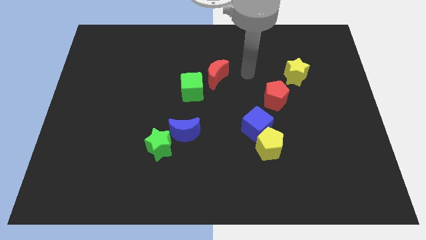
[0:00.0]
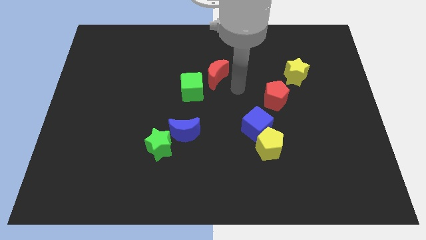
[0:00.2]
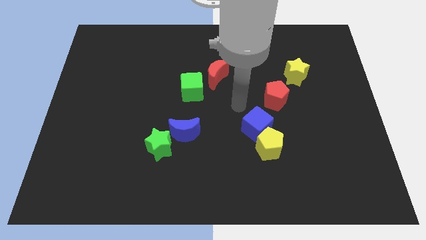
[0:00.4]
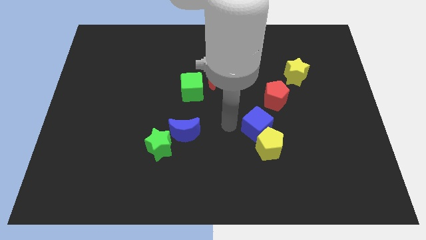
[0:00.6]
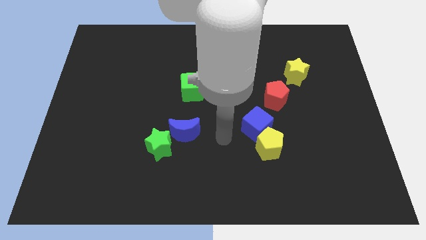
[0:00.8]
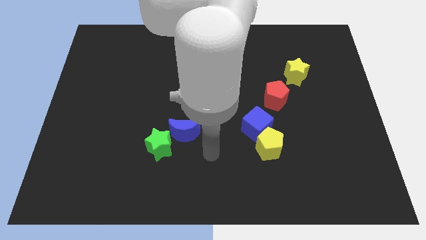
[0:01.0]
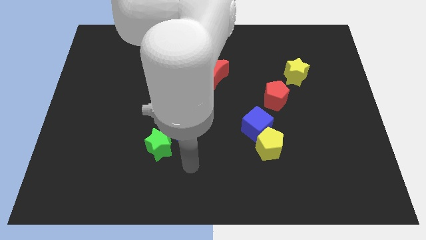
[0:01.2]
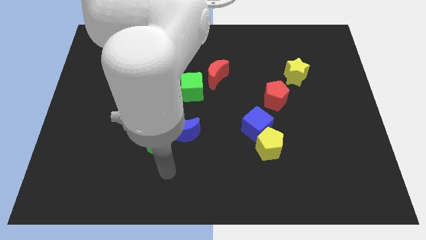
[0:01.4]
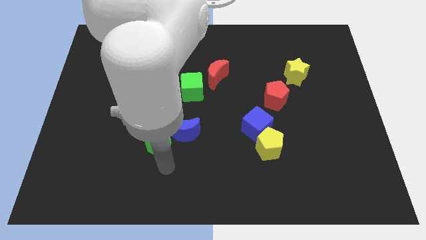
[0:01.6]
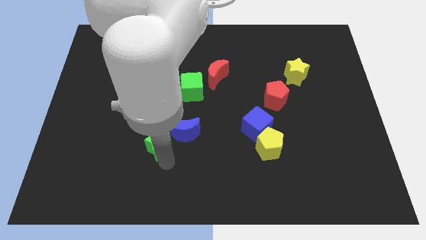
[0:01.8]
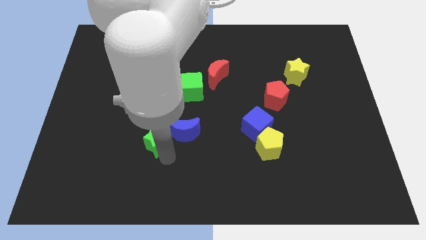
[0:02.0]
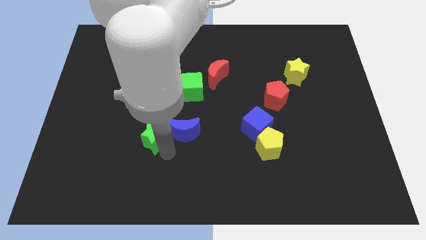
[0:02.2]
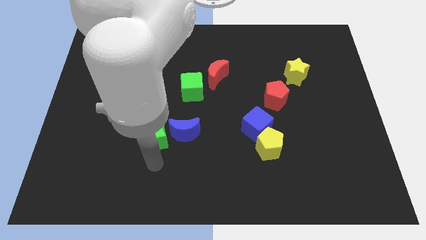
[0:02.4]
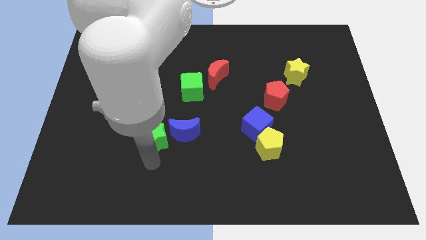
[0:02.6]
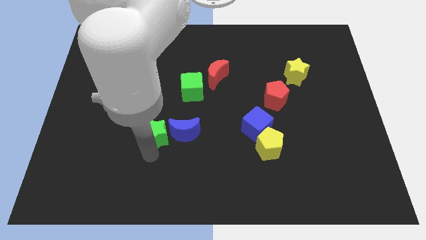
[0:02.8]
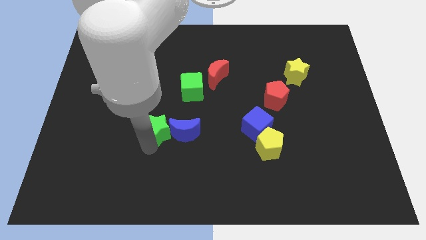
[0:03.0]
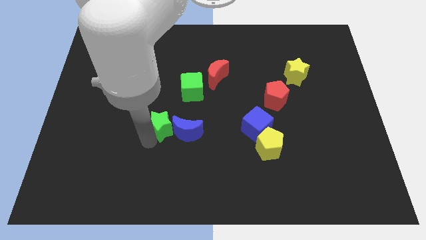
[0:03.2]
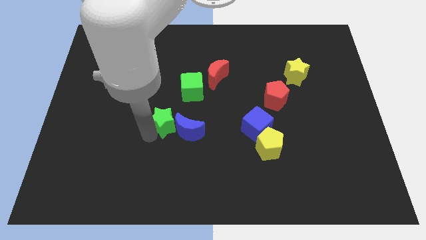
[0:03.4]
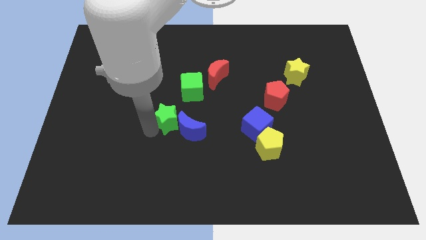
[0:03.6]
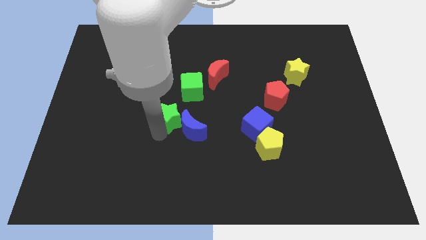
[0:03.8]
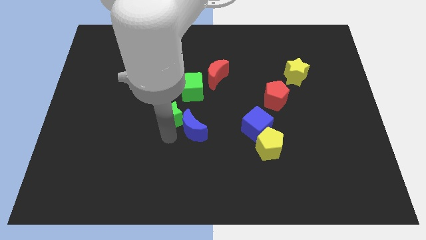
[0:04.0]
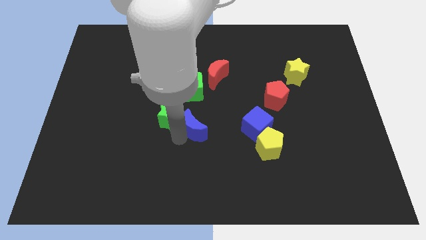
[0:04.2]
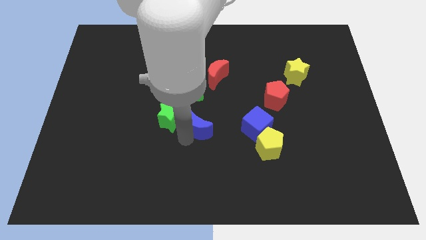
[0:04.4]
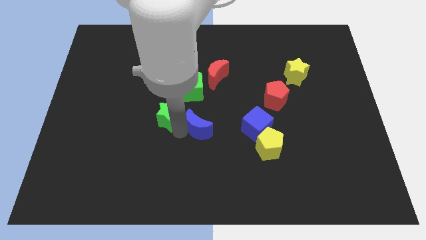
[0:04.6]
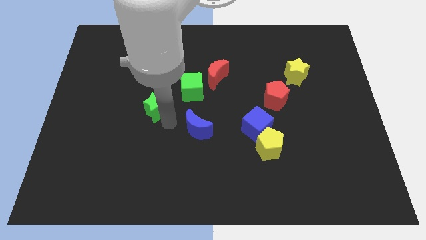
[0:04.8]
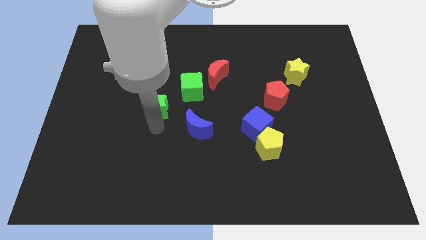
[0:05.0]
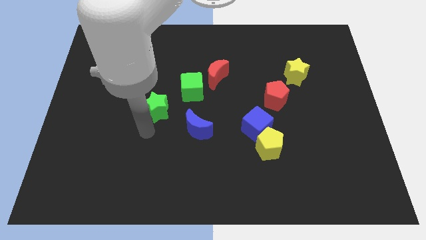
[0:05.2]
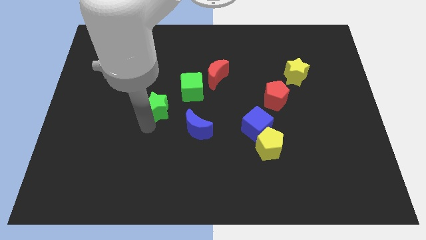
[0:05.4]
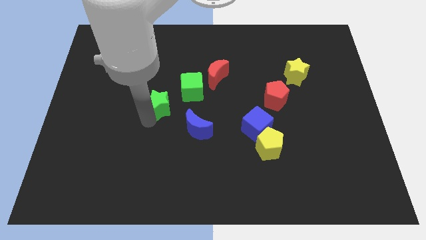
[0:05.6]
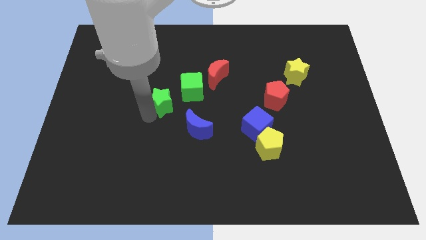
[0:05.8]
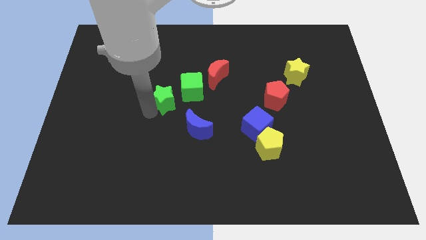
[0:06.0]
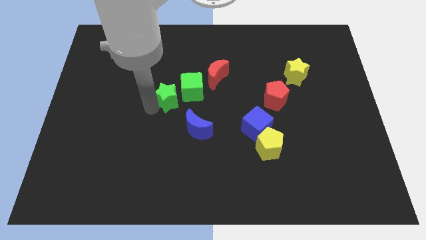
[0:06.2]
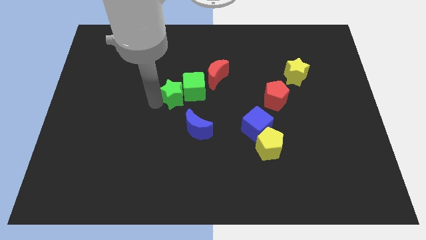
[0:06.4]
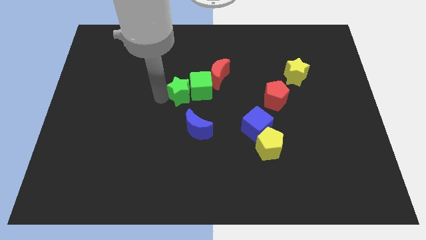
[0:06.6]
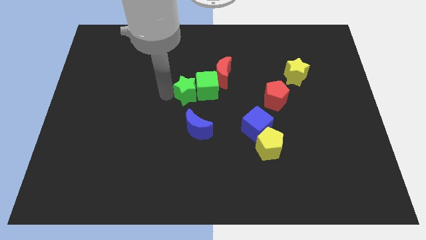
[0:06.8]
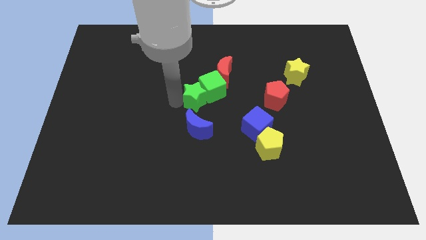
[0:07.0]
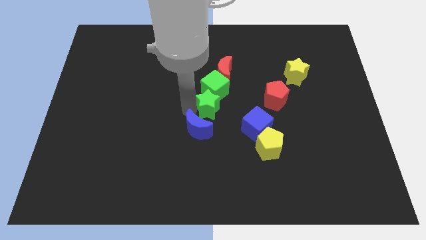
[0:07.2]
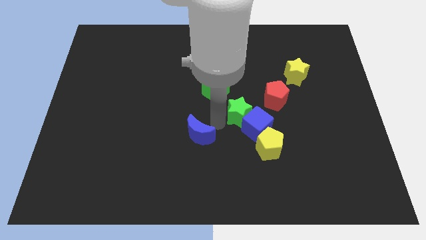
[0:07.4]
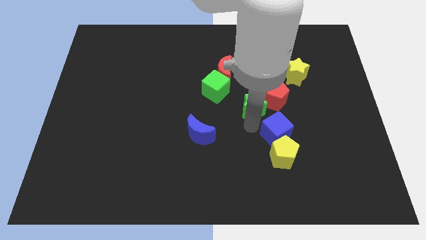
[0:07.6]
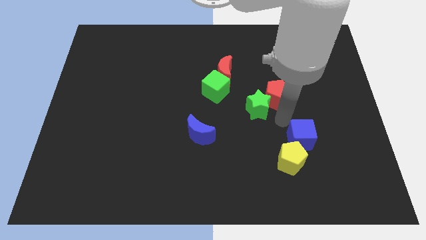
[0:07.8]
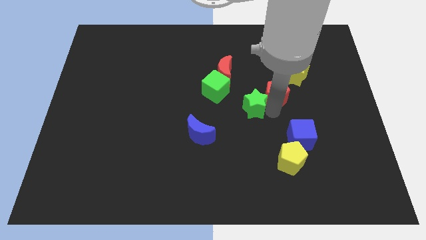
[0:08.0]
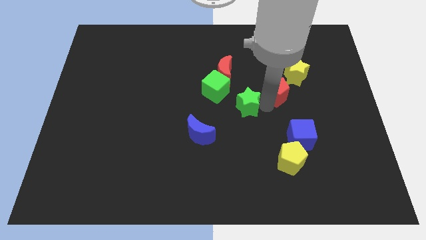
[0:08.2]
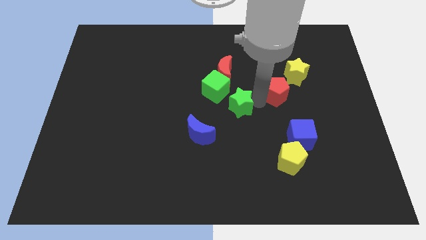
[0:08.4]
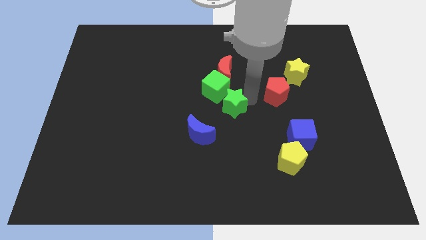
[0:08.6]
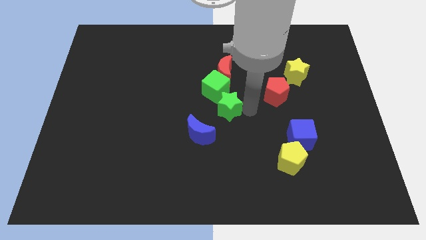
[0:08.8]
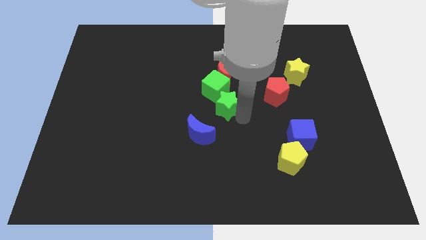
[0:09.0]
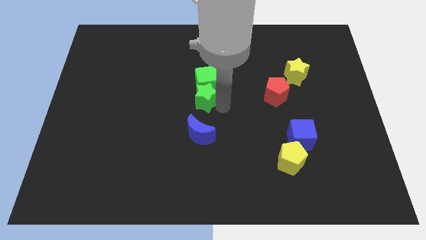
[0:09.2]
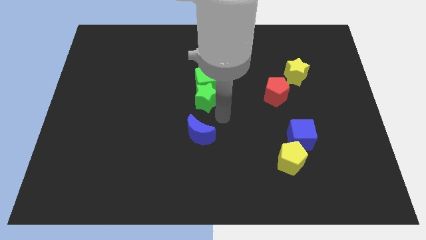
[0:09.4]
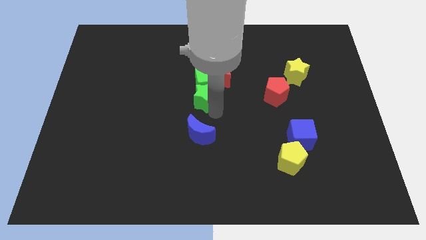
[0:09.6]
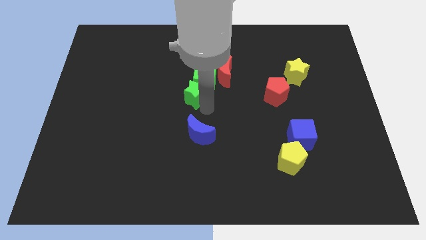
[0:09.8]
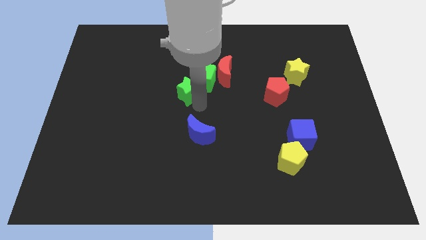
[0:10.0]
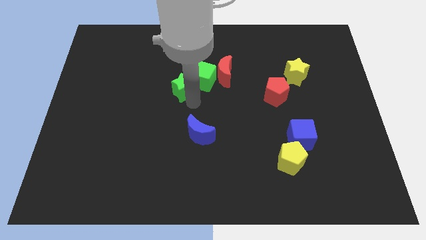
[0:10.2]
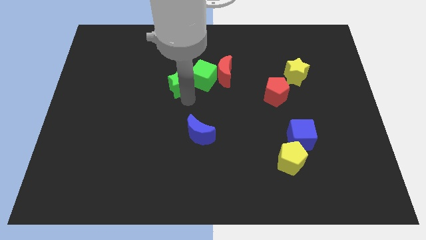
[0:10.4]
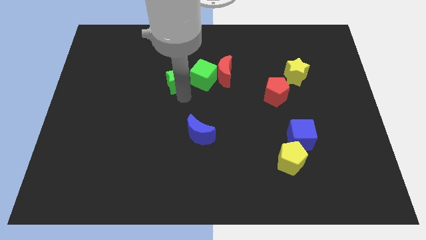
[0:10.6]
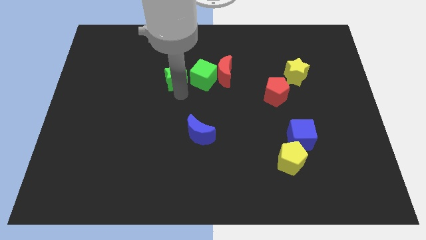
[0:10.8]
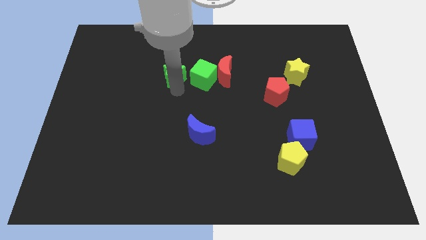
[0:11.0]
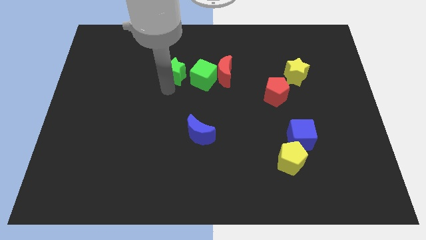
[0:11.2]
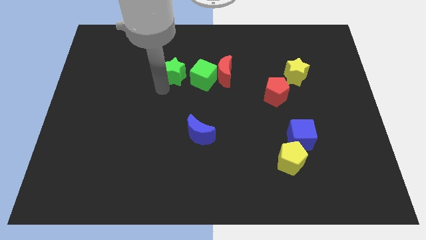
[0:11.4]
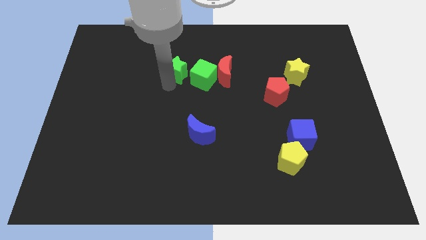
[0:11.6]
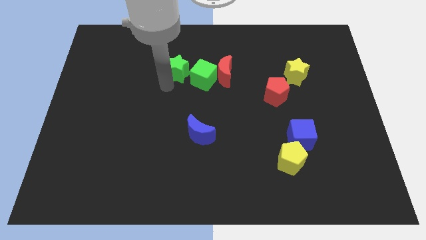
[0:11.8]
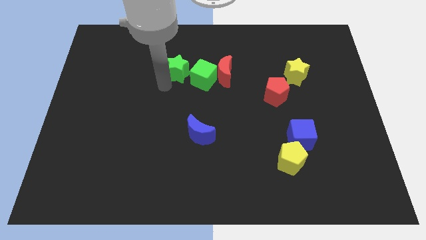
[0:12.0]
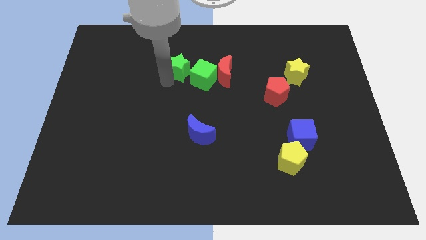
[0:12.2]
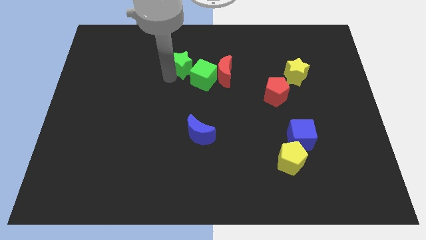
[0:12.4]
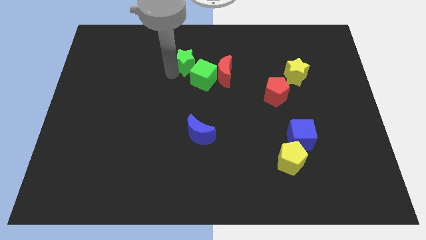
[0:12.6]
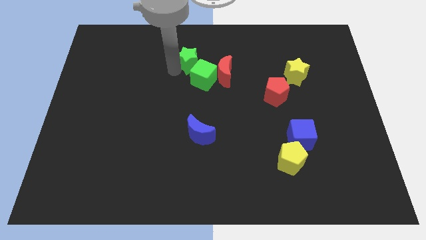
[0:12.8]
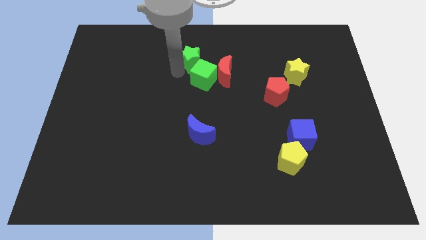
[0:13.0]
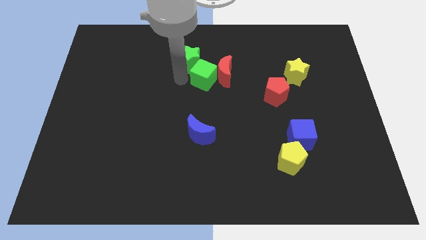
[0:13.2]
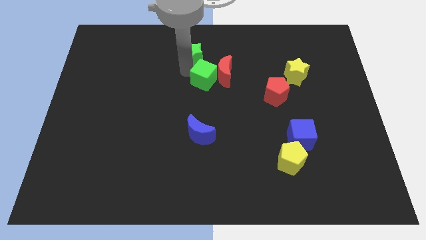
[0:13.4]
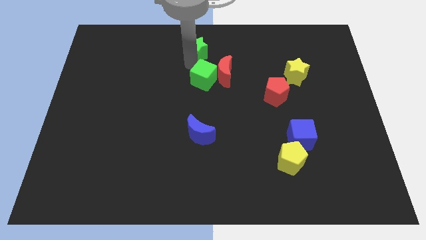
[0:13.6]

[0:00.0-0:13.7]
move the green star to the top
